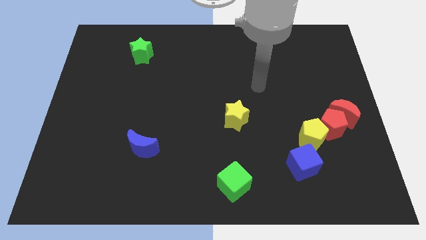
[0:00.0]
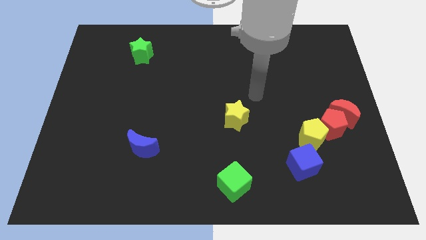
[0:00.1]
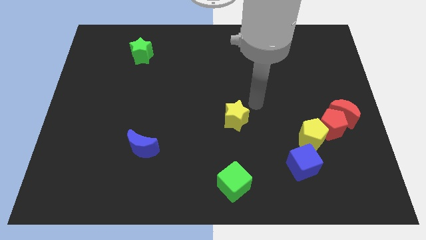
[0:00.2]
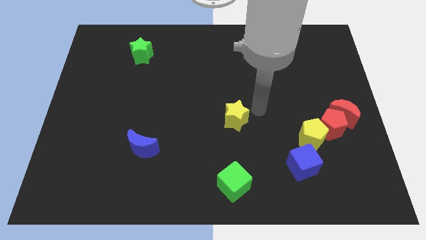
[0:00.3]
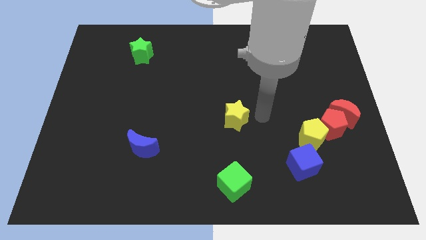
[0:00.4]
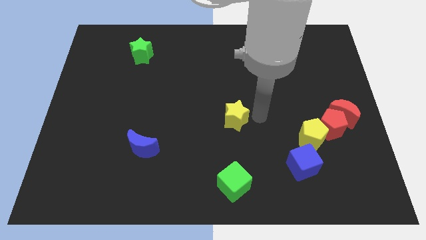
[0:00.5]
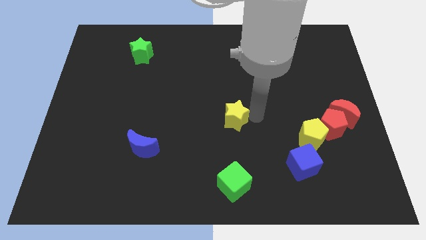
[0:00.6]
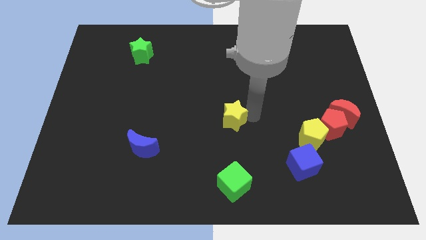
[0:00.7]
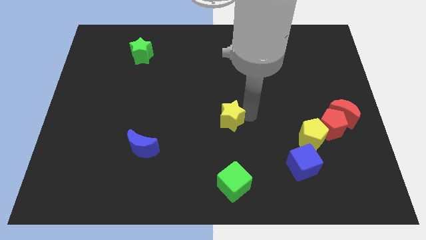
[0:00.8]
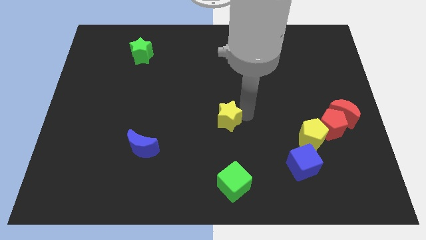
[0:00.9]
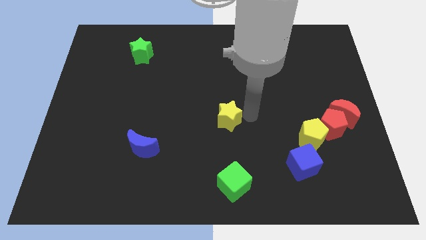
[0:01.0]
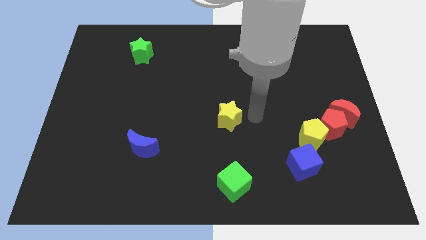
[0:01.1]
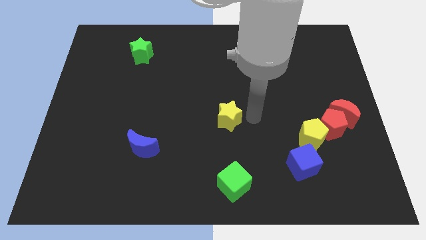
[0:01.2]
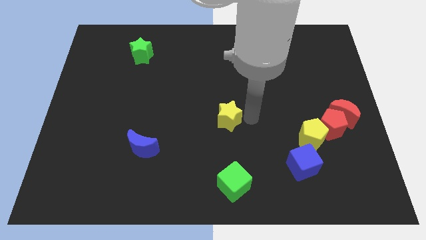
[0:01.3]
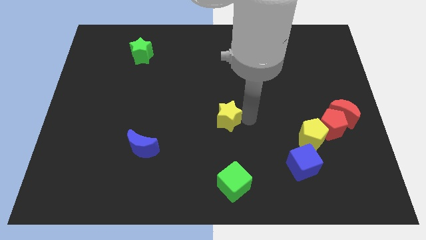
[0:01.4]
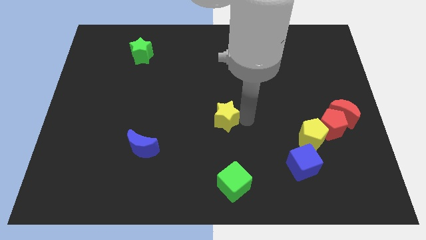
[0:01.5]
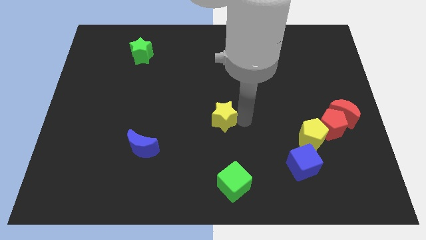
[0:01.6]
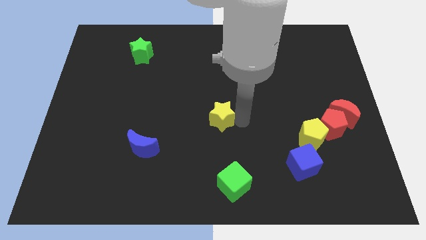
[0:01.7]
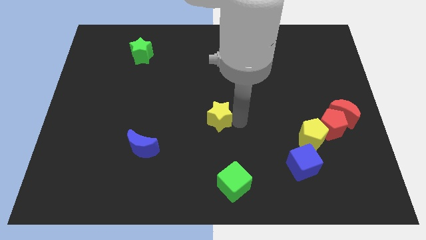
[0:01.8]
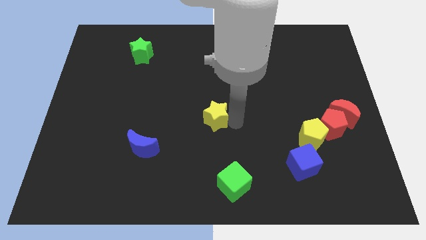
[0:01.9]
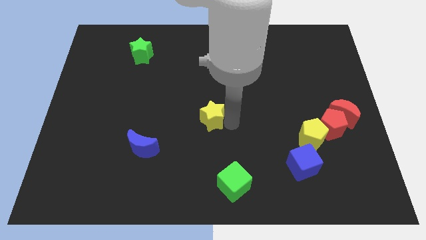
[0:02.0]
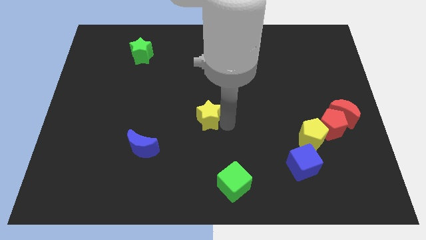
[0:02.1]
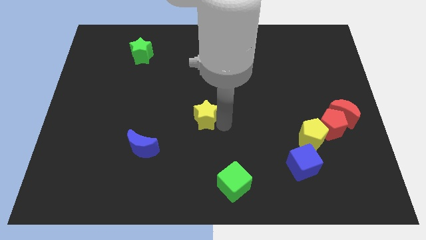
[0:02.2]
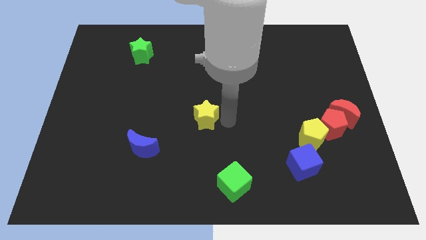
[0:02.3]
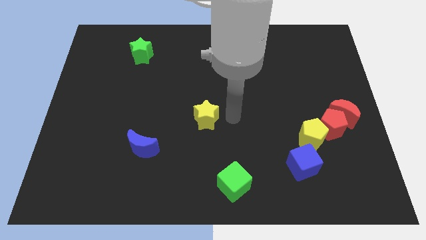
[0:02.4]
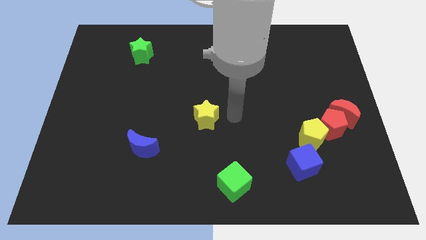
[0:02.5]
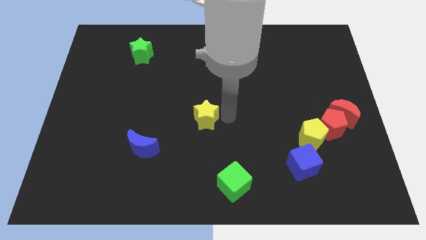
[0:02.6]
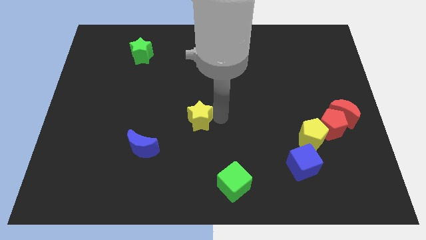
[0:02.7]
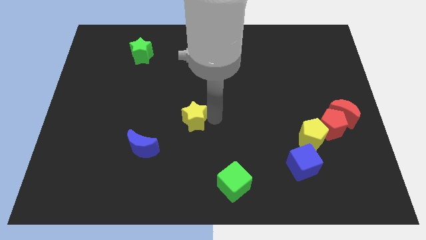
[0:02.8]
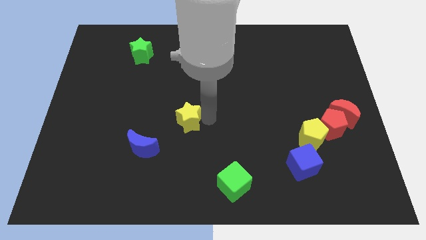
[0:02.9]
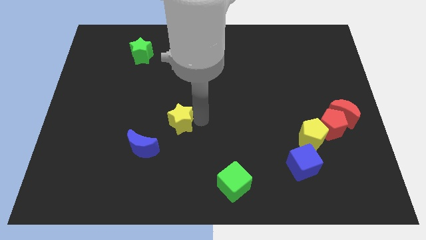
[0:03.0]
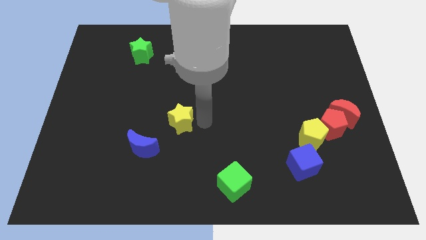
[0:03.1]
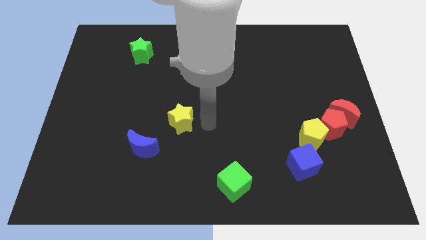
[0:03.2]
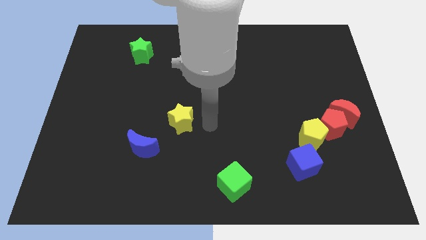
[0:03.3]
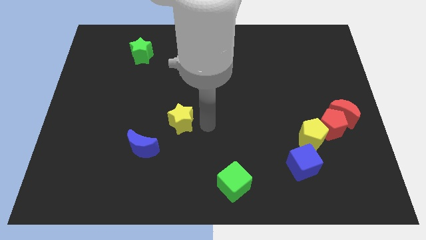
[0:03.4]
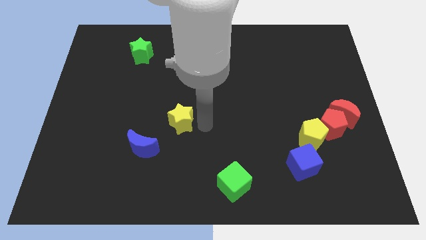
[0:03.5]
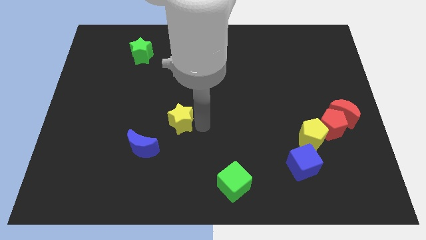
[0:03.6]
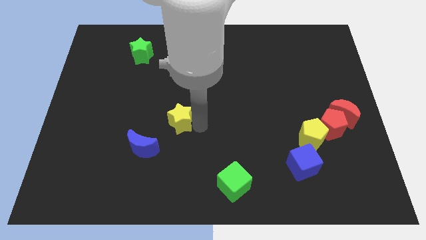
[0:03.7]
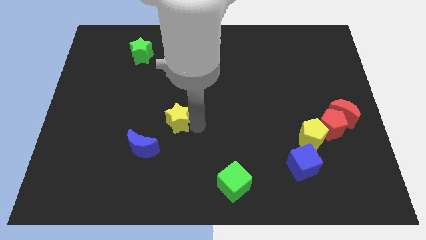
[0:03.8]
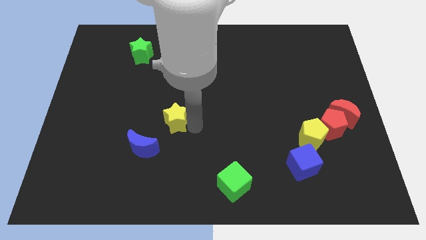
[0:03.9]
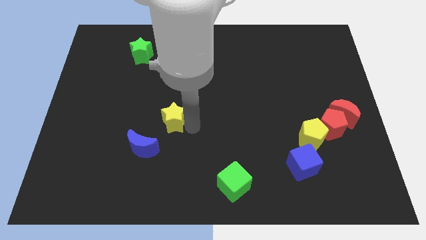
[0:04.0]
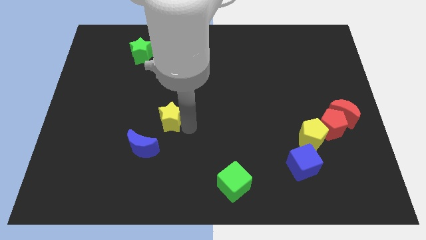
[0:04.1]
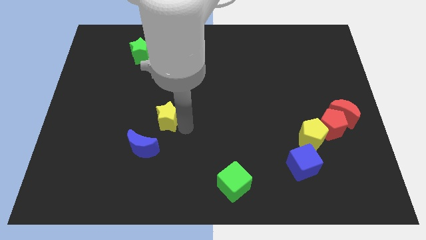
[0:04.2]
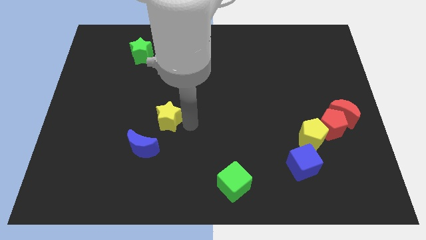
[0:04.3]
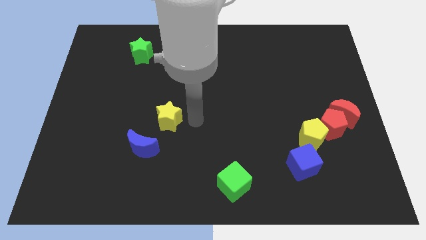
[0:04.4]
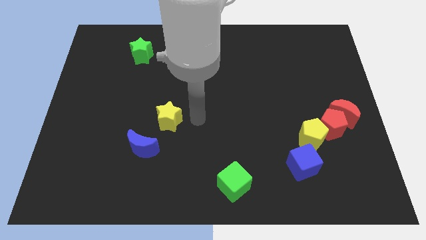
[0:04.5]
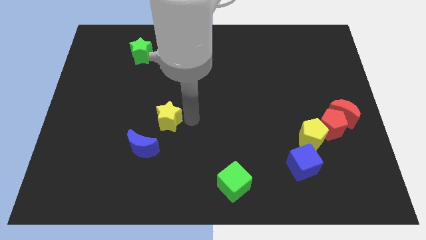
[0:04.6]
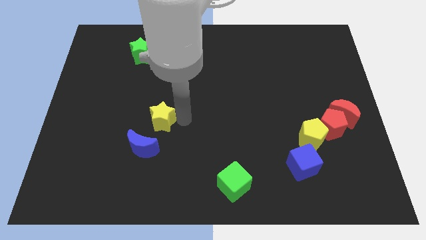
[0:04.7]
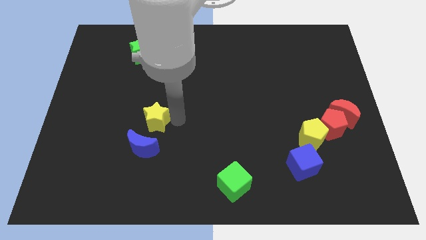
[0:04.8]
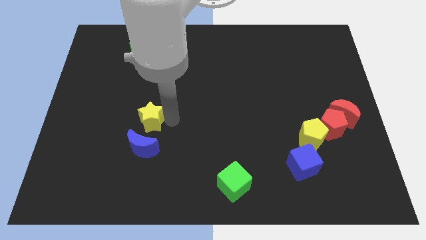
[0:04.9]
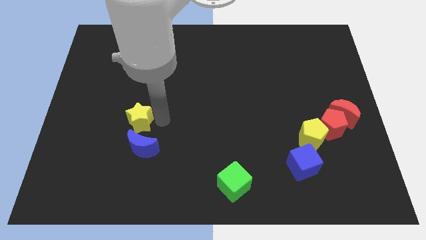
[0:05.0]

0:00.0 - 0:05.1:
slide the yellow star to the left

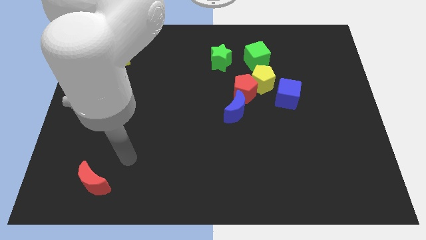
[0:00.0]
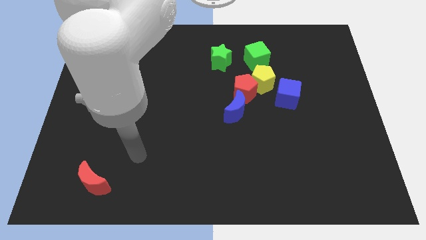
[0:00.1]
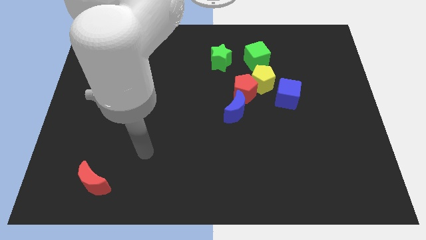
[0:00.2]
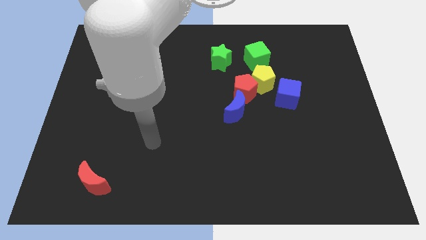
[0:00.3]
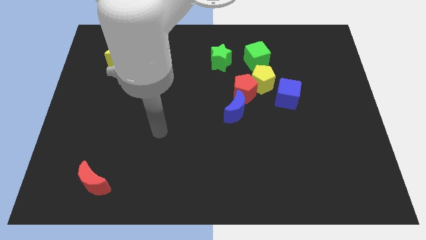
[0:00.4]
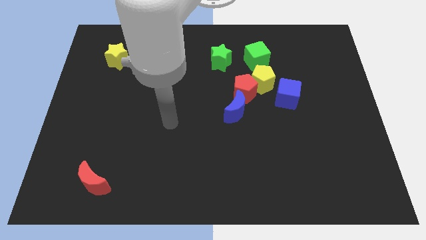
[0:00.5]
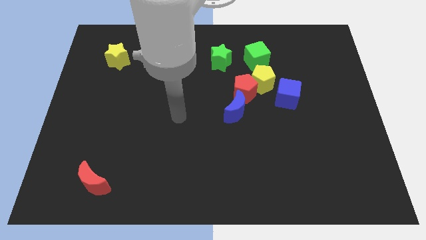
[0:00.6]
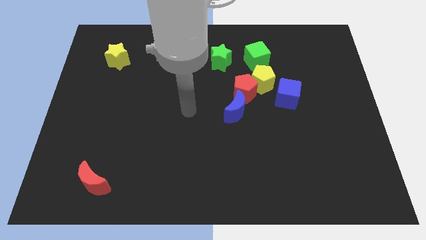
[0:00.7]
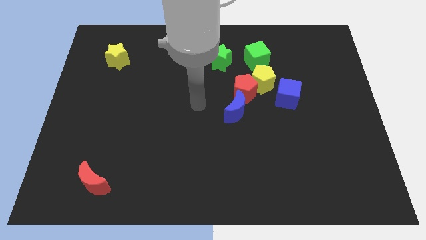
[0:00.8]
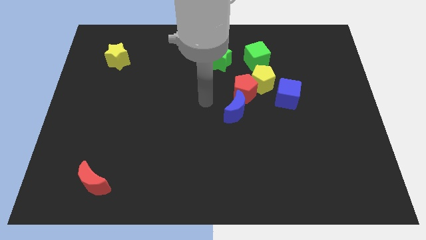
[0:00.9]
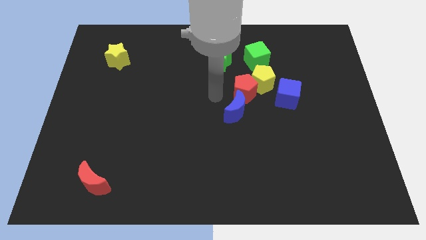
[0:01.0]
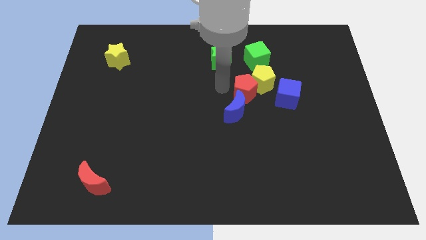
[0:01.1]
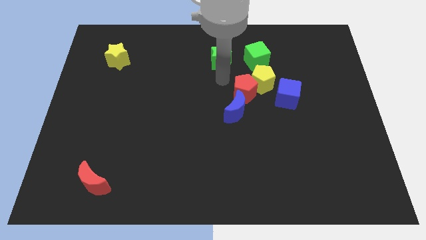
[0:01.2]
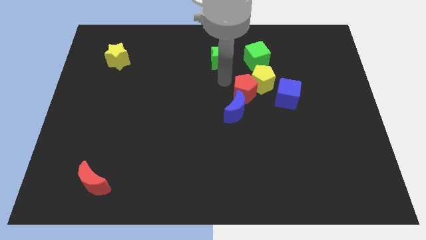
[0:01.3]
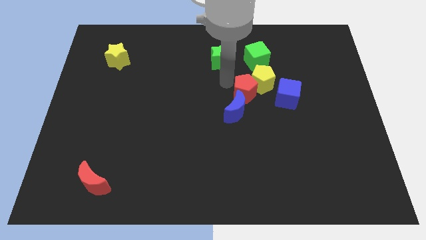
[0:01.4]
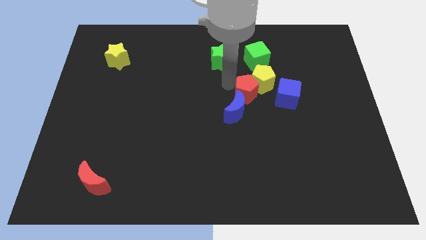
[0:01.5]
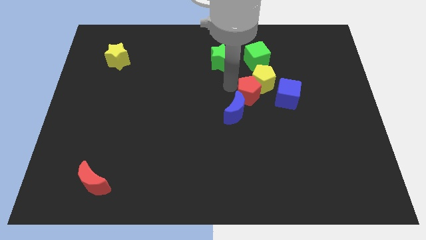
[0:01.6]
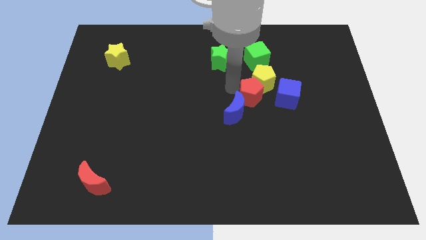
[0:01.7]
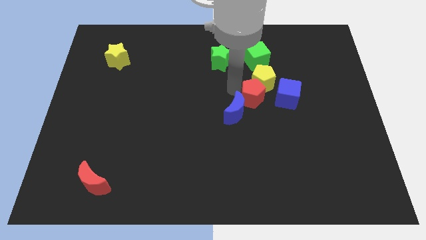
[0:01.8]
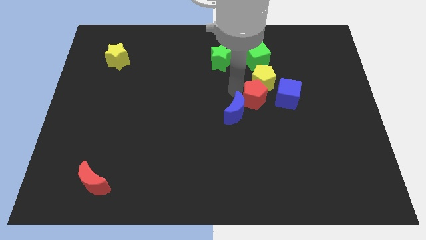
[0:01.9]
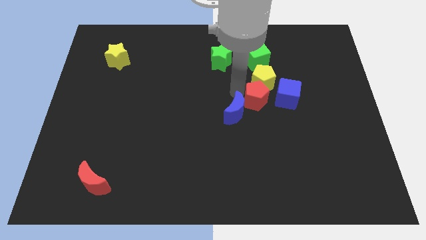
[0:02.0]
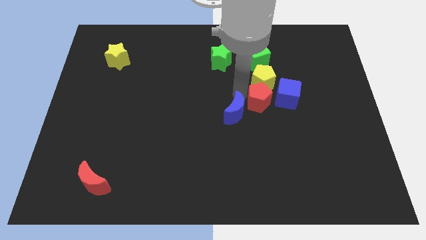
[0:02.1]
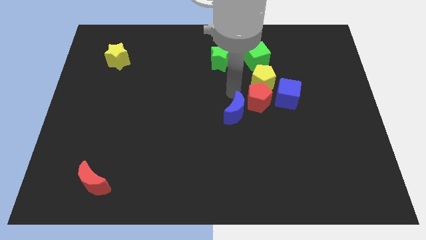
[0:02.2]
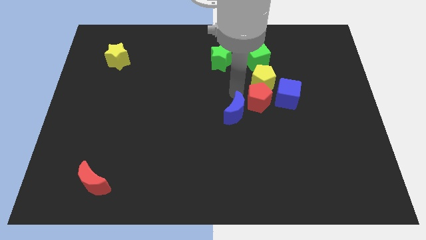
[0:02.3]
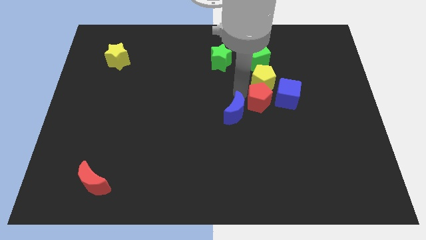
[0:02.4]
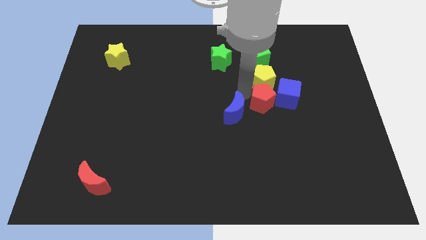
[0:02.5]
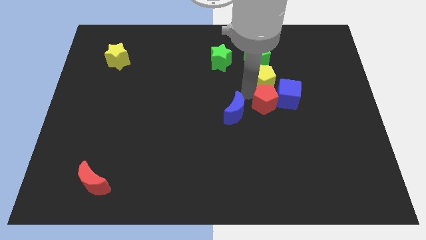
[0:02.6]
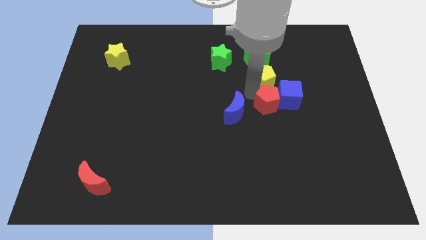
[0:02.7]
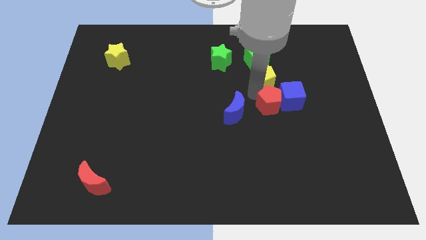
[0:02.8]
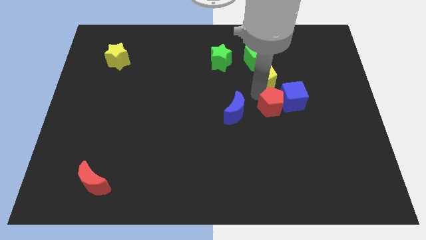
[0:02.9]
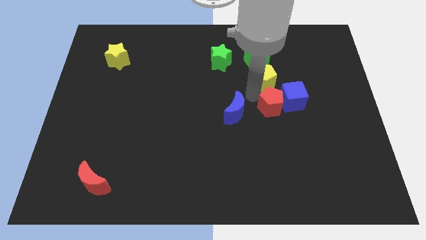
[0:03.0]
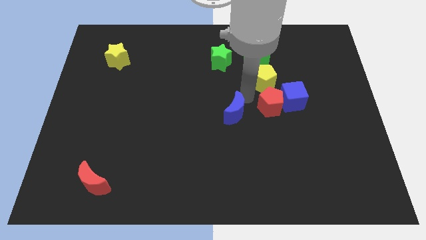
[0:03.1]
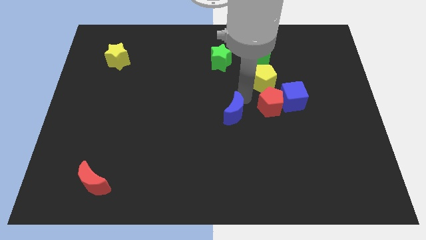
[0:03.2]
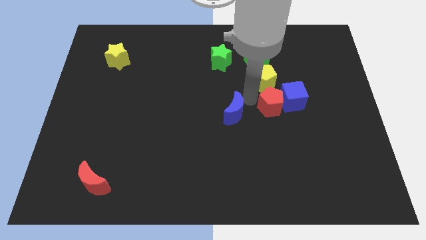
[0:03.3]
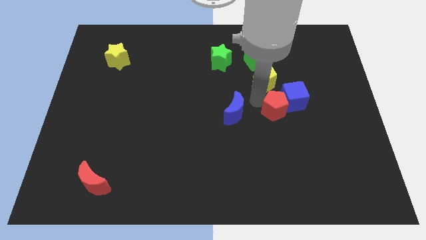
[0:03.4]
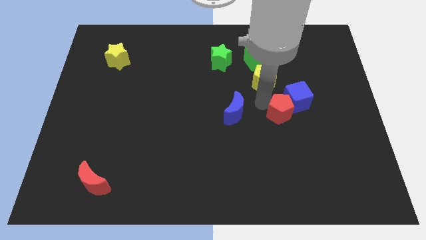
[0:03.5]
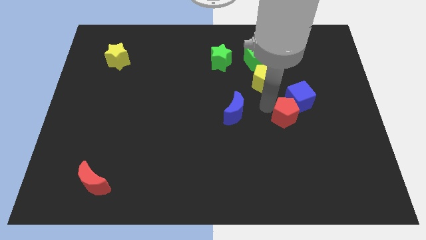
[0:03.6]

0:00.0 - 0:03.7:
slightly slide the red pentagon to the right
